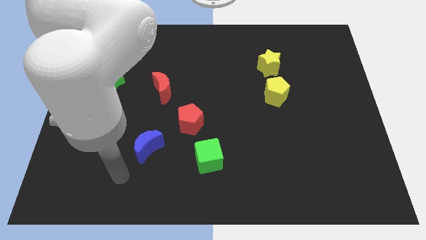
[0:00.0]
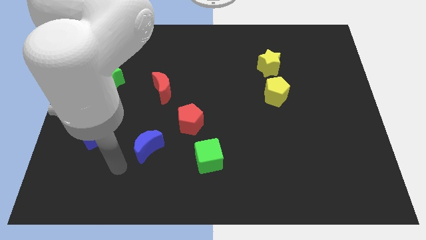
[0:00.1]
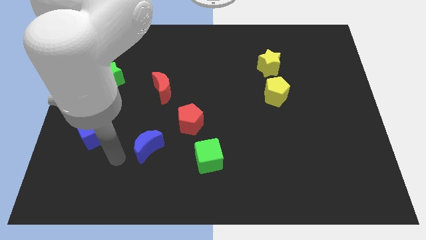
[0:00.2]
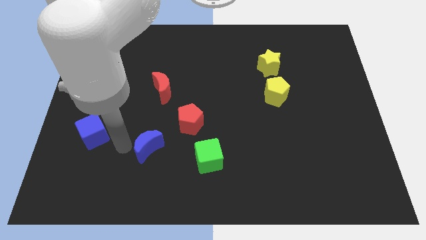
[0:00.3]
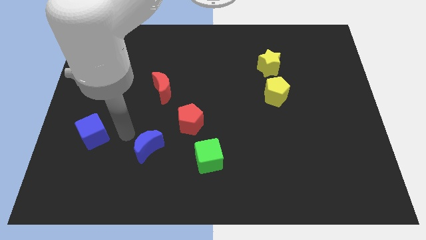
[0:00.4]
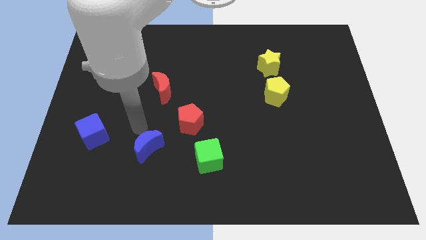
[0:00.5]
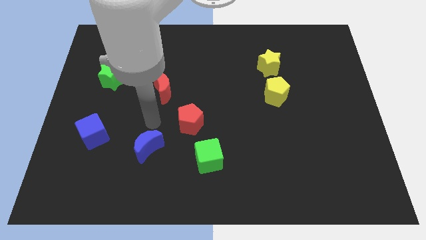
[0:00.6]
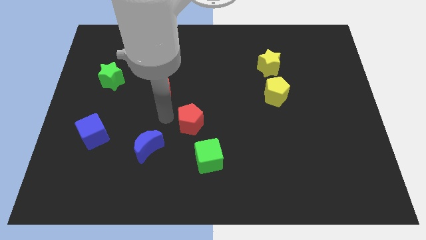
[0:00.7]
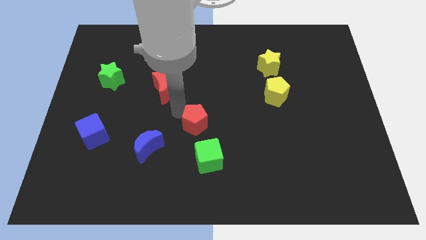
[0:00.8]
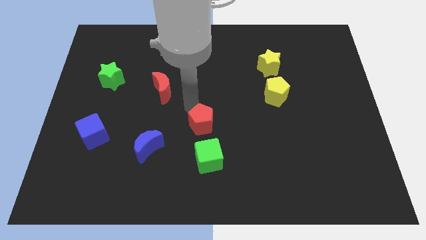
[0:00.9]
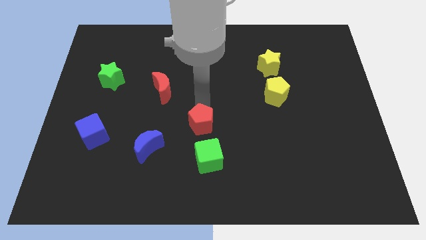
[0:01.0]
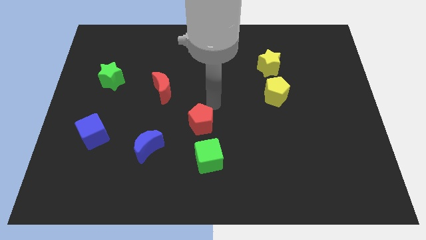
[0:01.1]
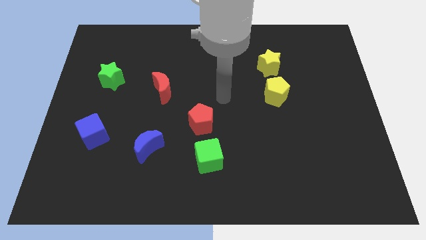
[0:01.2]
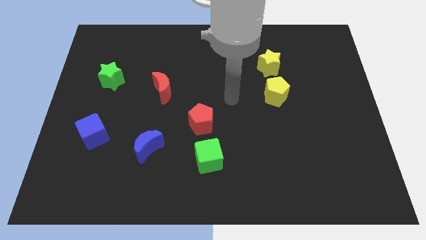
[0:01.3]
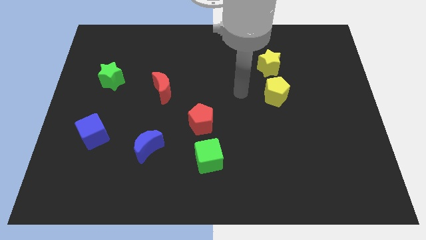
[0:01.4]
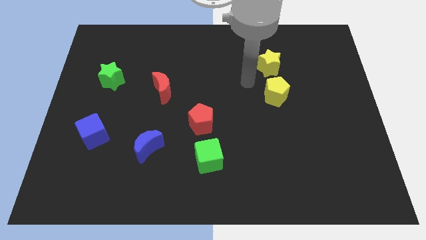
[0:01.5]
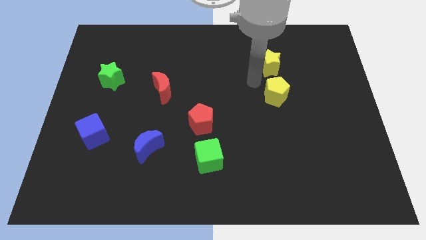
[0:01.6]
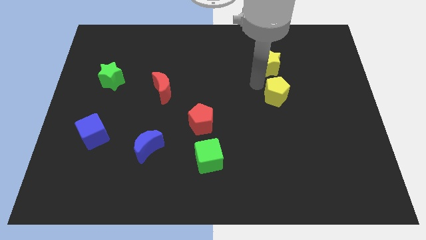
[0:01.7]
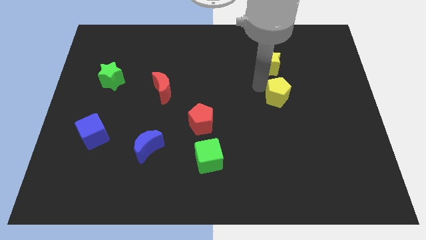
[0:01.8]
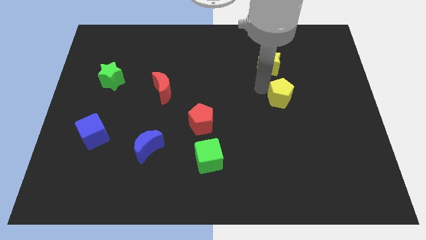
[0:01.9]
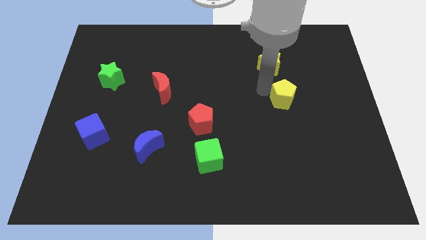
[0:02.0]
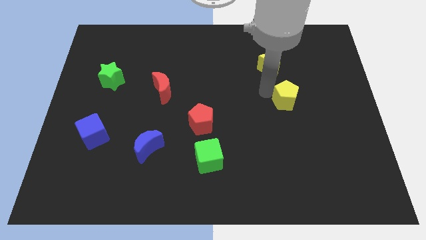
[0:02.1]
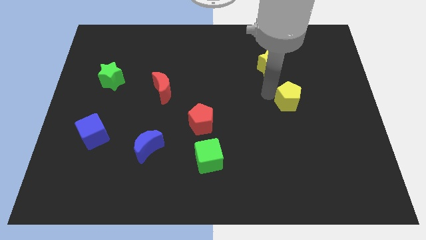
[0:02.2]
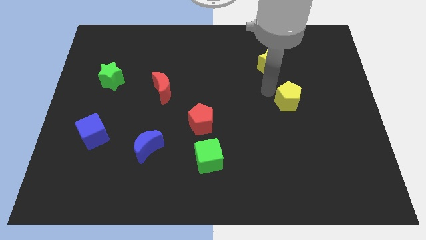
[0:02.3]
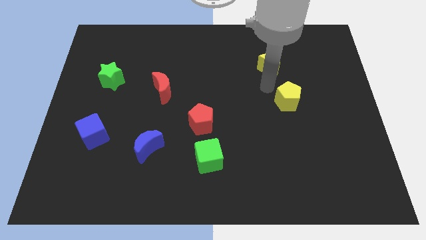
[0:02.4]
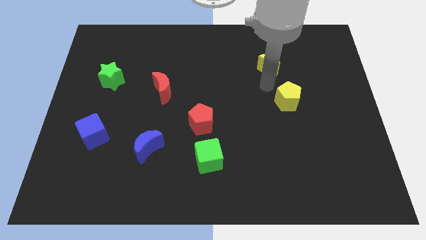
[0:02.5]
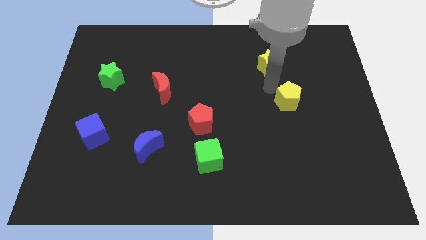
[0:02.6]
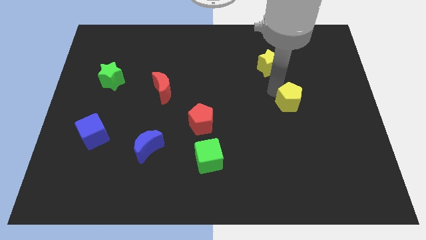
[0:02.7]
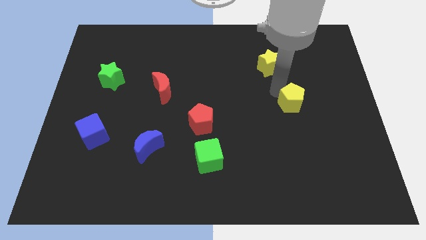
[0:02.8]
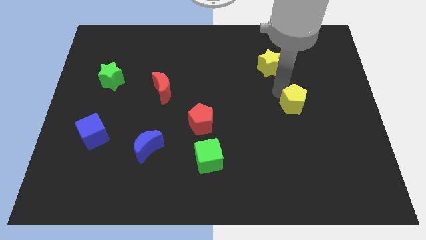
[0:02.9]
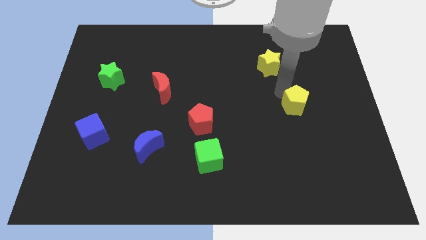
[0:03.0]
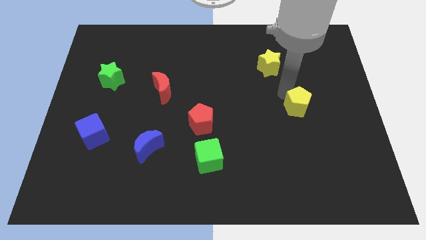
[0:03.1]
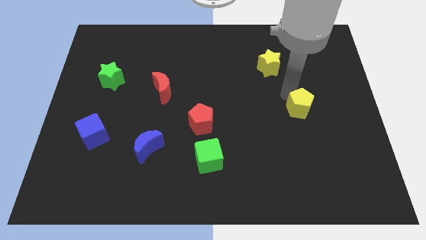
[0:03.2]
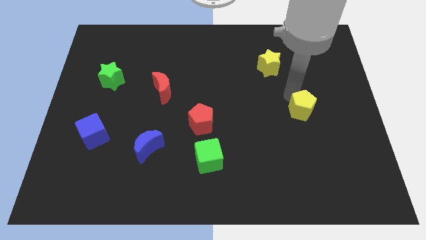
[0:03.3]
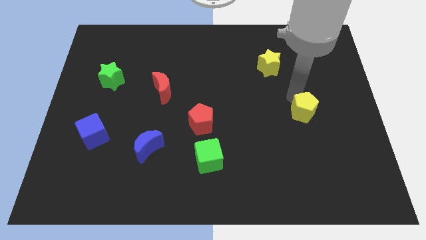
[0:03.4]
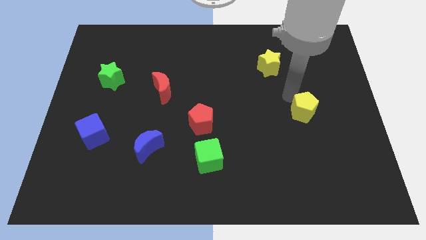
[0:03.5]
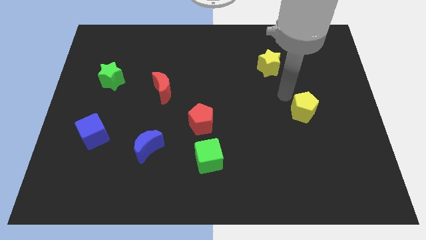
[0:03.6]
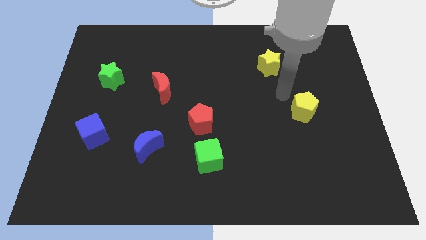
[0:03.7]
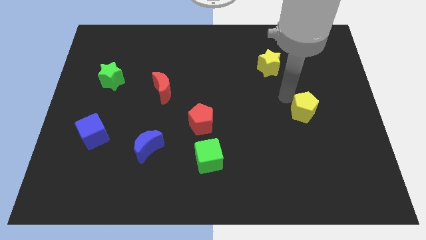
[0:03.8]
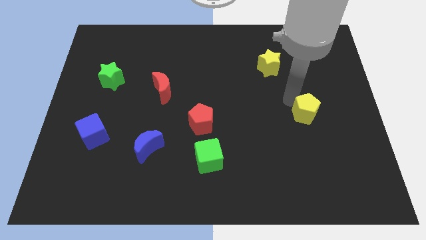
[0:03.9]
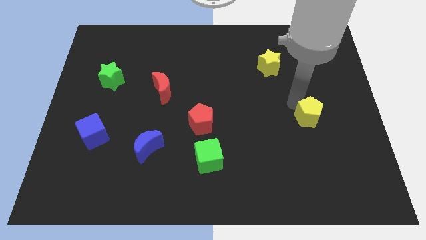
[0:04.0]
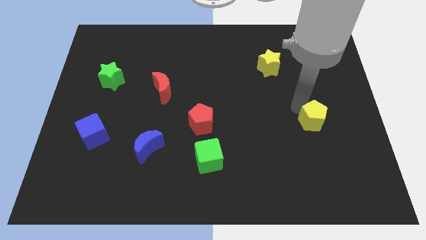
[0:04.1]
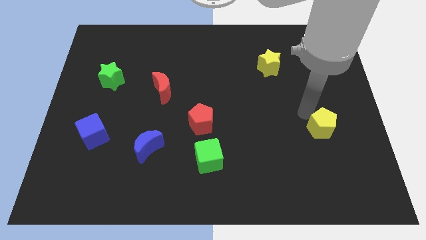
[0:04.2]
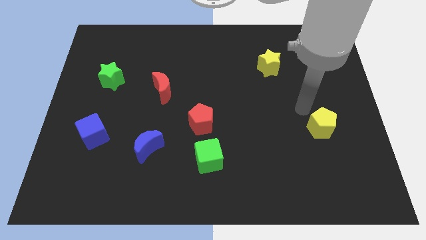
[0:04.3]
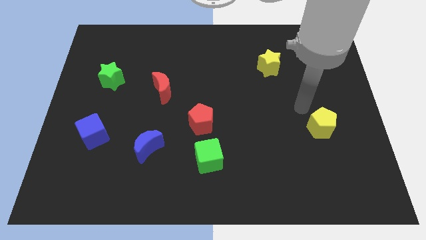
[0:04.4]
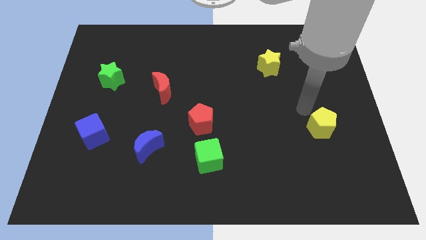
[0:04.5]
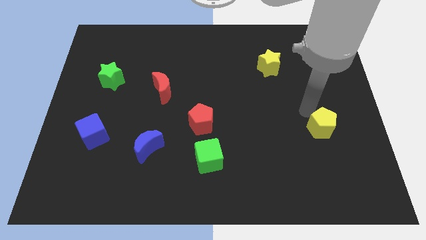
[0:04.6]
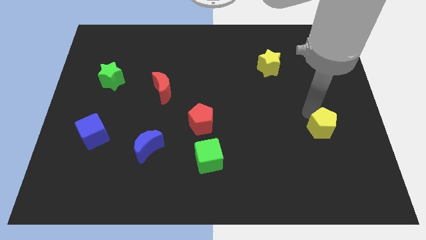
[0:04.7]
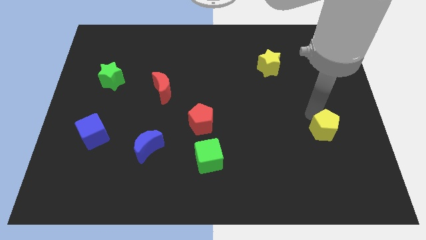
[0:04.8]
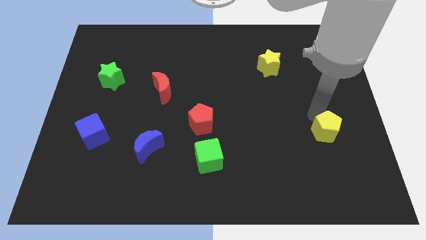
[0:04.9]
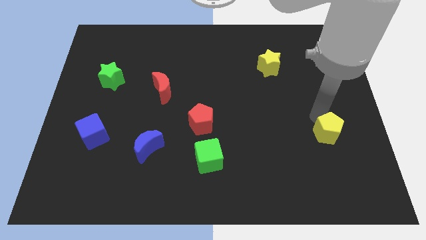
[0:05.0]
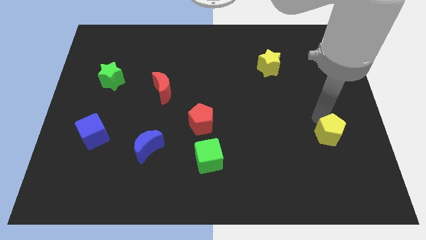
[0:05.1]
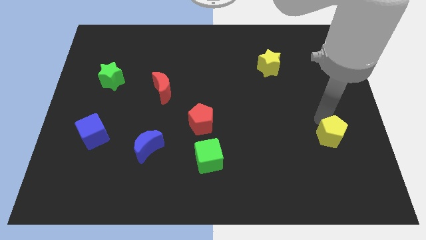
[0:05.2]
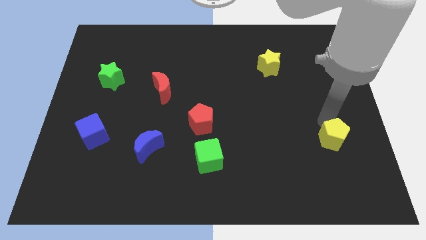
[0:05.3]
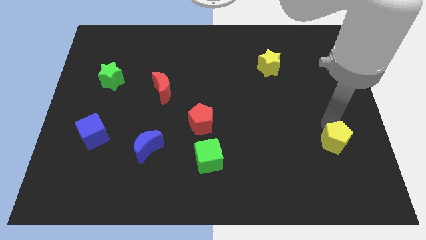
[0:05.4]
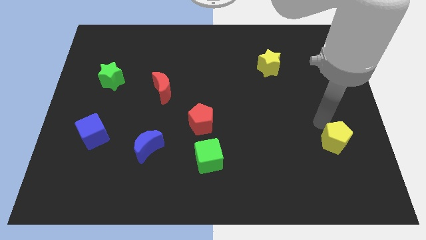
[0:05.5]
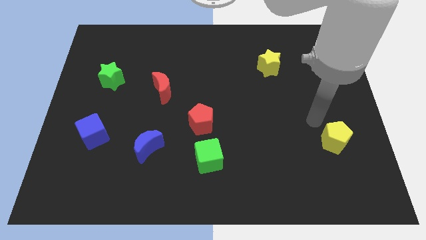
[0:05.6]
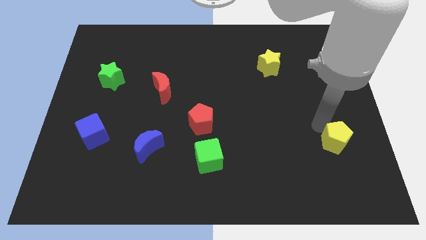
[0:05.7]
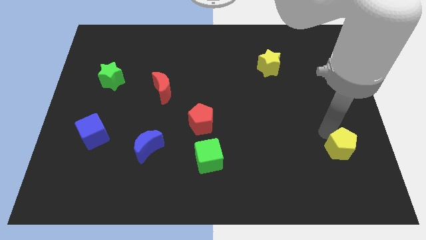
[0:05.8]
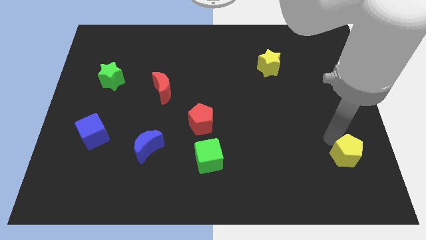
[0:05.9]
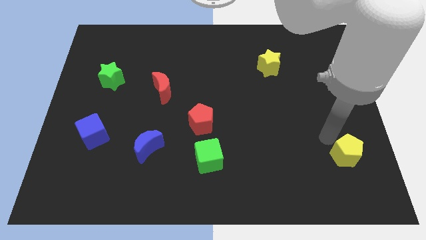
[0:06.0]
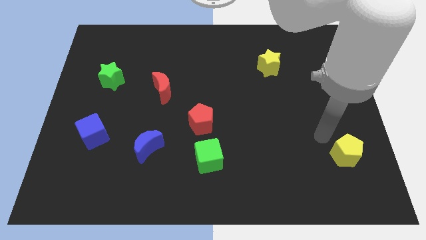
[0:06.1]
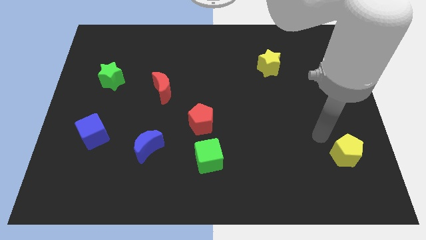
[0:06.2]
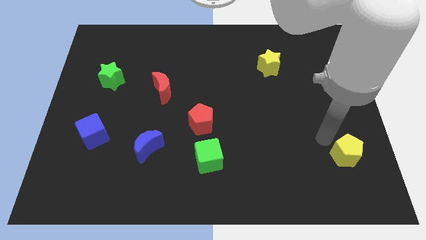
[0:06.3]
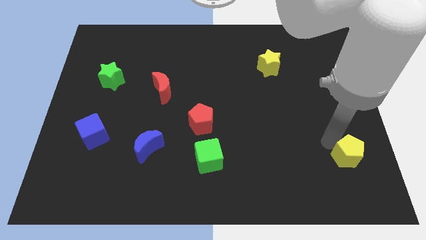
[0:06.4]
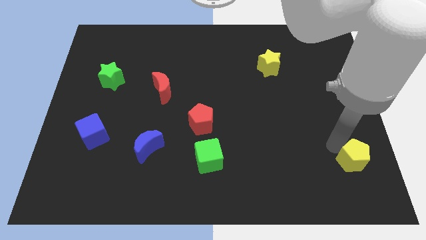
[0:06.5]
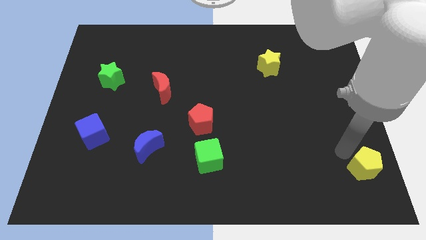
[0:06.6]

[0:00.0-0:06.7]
slide the yellow pentagon to the bottom right of the board

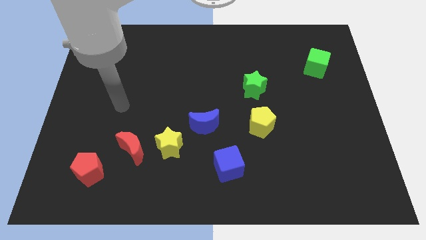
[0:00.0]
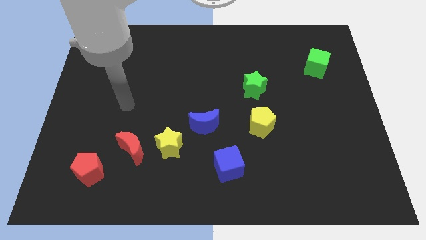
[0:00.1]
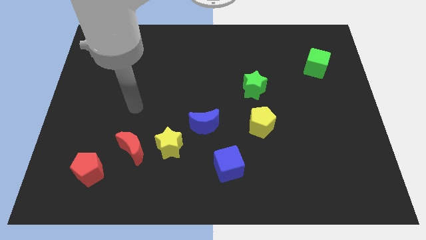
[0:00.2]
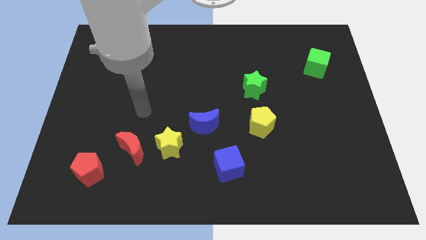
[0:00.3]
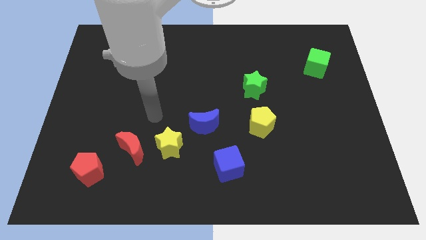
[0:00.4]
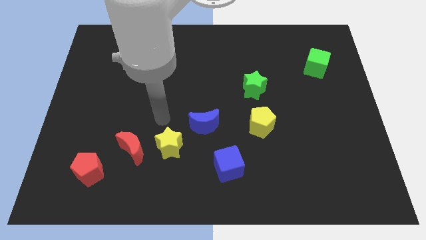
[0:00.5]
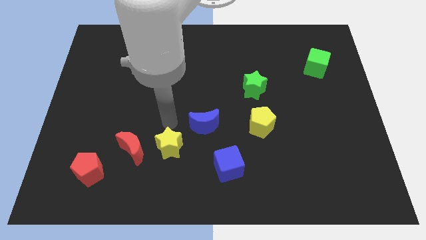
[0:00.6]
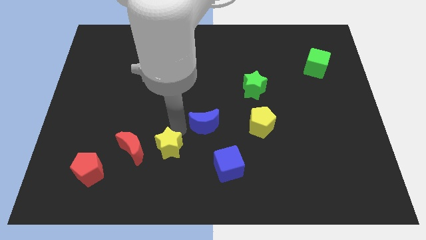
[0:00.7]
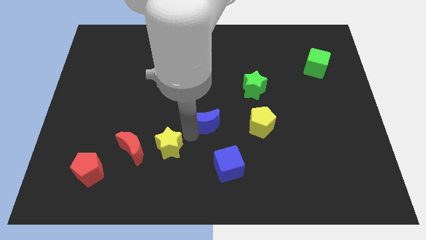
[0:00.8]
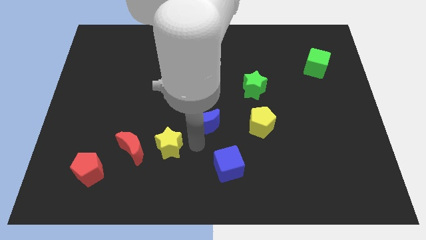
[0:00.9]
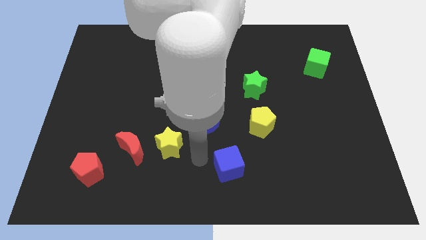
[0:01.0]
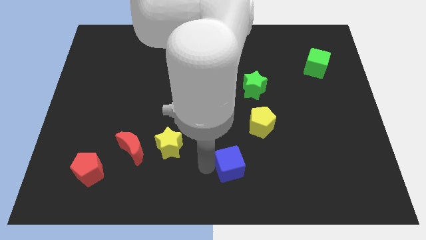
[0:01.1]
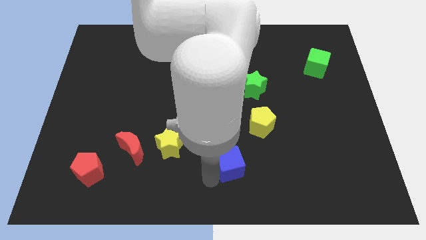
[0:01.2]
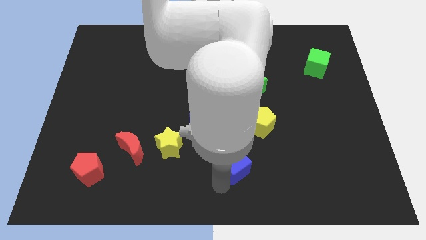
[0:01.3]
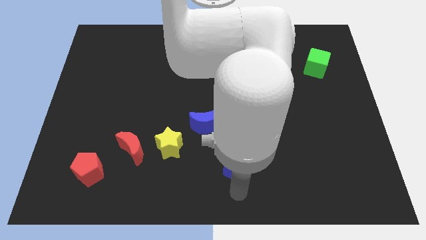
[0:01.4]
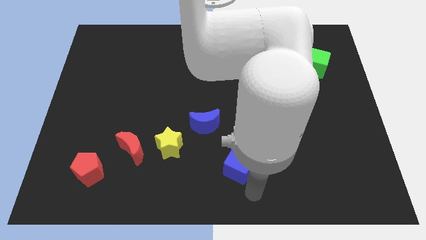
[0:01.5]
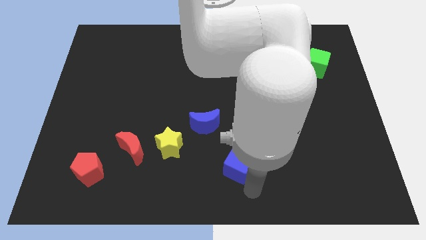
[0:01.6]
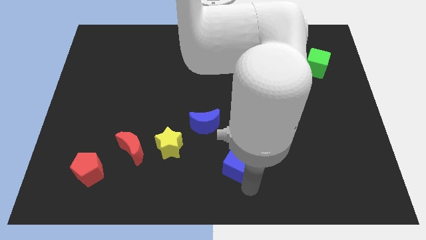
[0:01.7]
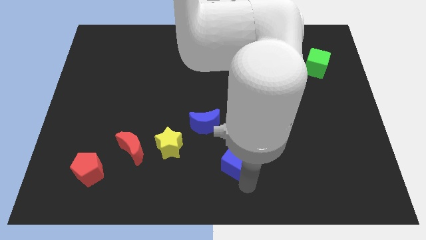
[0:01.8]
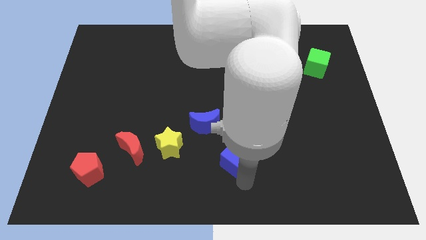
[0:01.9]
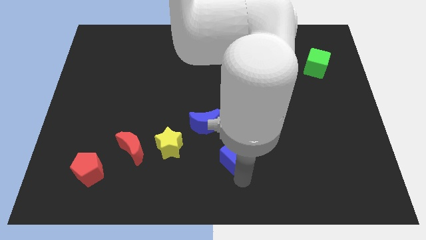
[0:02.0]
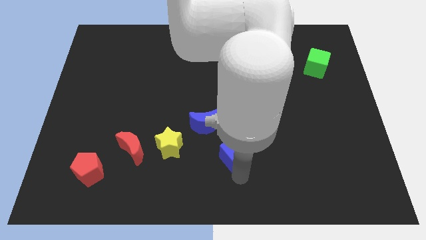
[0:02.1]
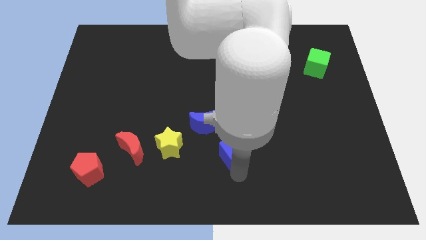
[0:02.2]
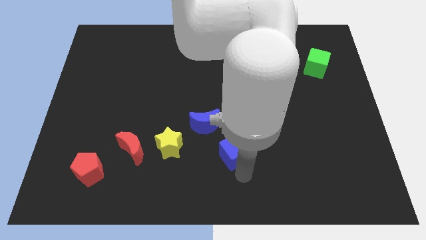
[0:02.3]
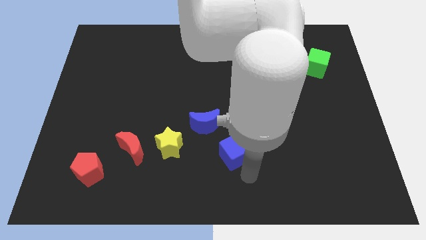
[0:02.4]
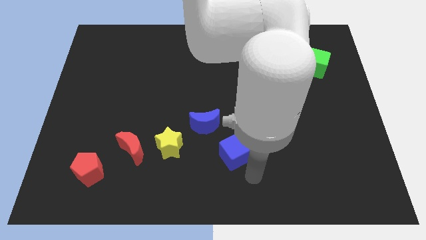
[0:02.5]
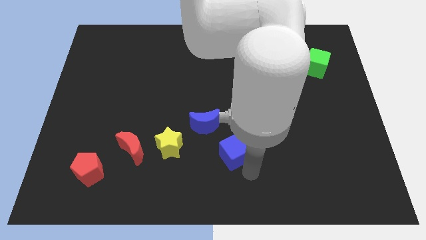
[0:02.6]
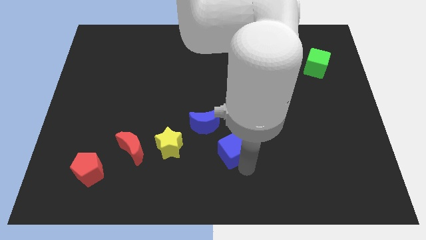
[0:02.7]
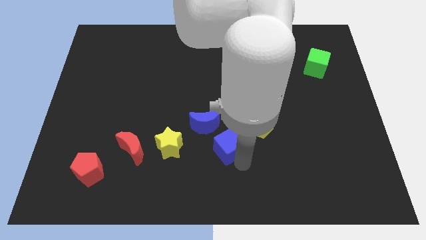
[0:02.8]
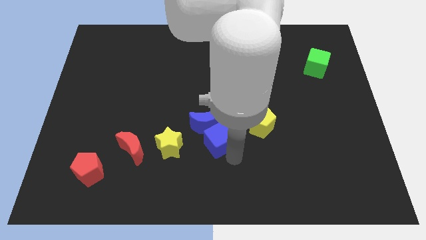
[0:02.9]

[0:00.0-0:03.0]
push the blue cube to the middle
